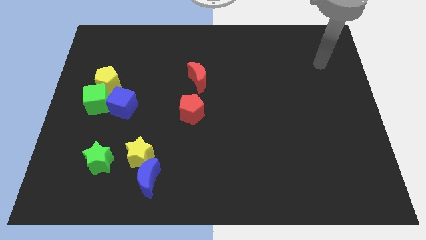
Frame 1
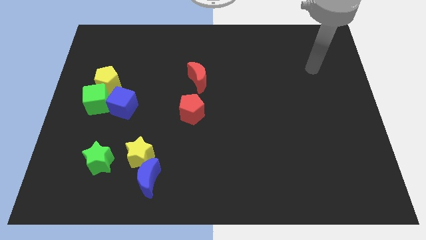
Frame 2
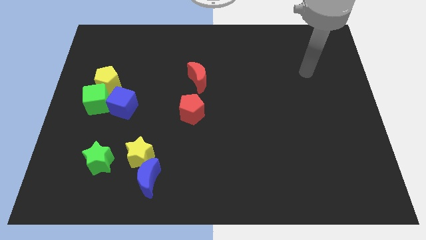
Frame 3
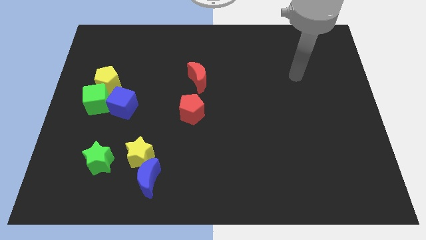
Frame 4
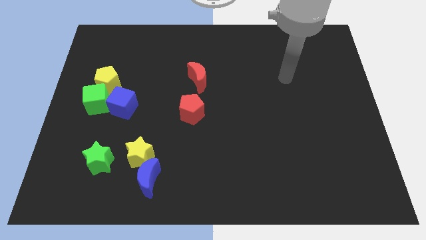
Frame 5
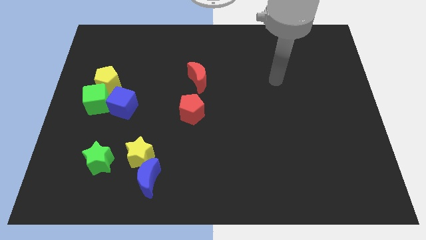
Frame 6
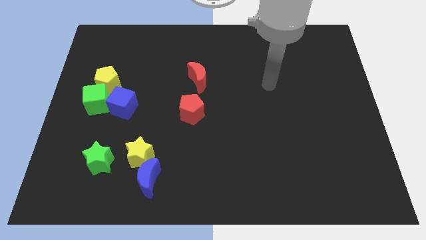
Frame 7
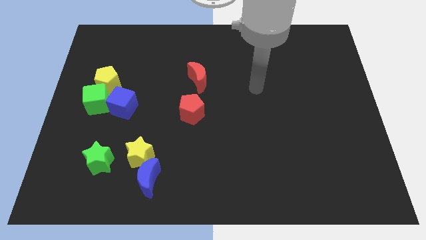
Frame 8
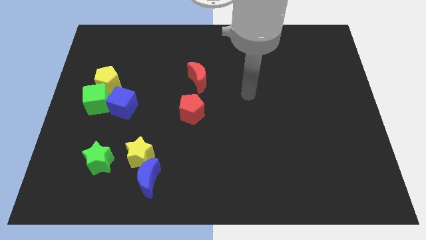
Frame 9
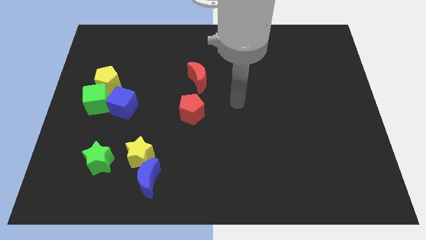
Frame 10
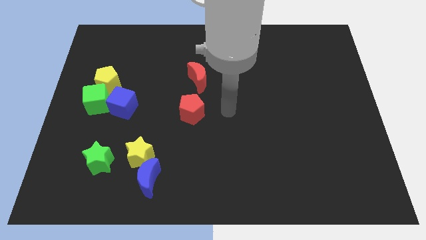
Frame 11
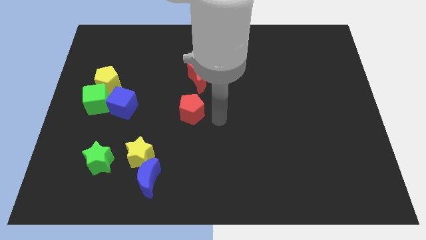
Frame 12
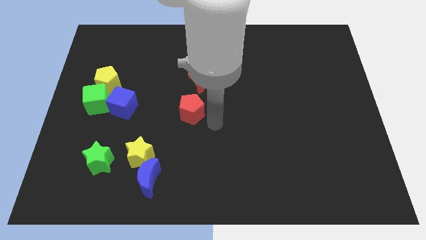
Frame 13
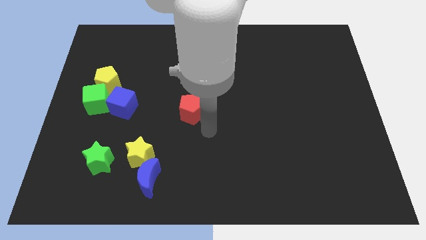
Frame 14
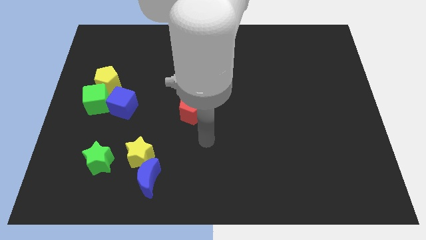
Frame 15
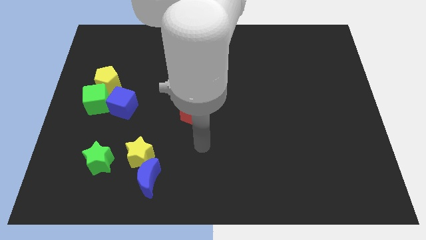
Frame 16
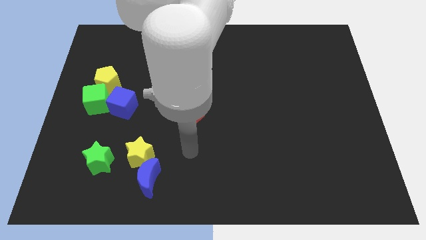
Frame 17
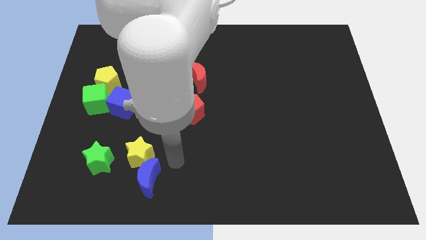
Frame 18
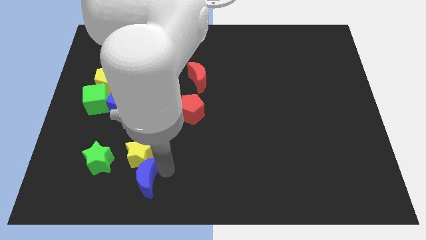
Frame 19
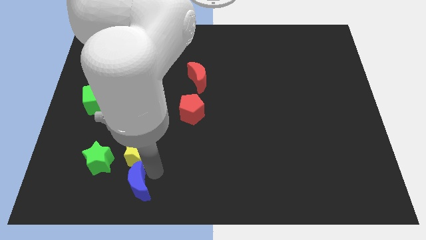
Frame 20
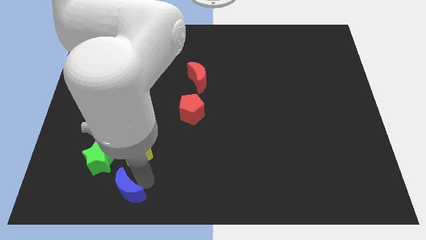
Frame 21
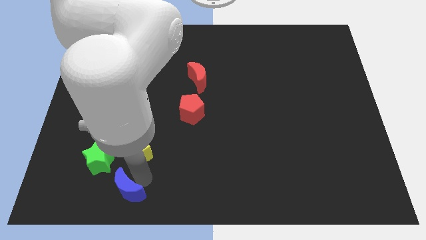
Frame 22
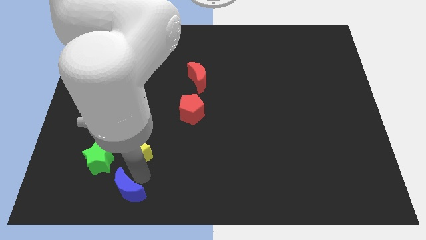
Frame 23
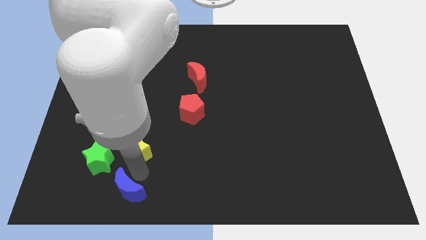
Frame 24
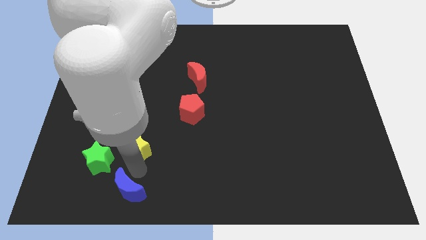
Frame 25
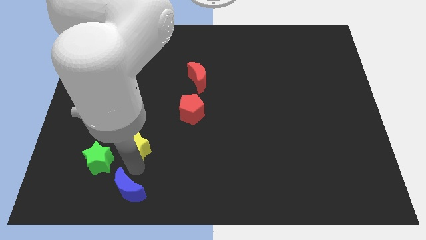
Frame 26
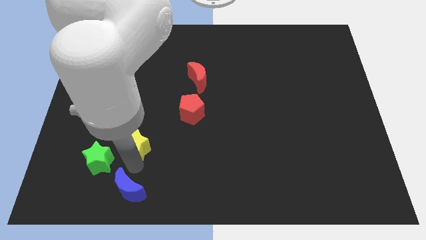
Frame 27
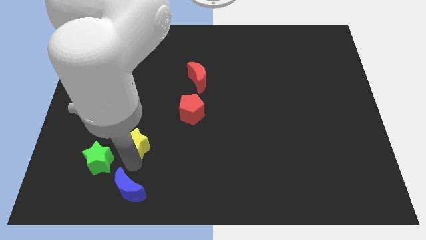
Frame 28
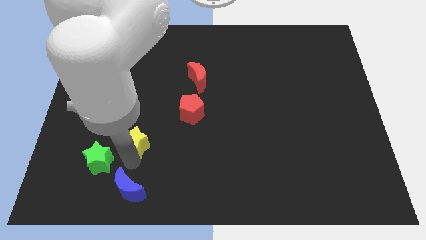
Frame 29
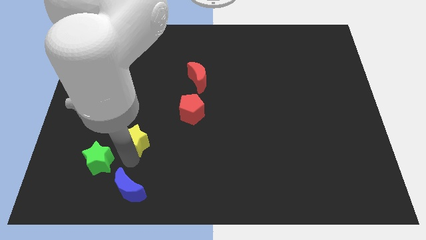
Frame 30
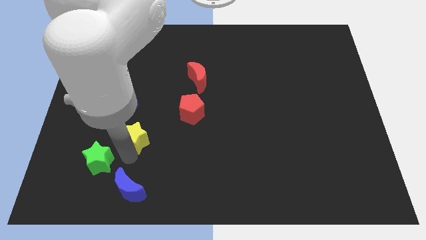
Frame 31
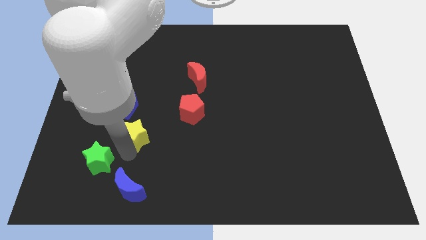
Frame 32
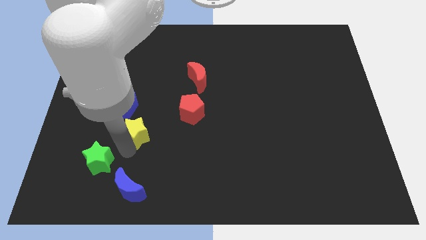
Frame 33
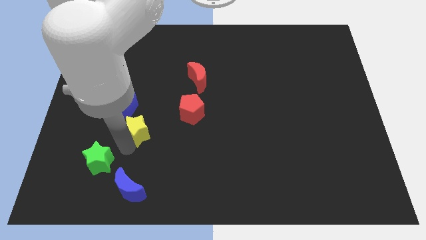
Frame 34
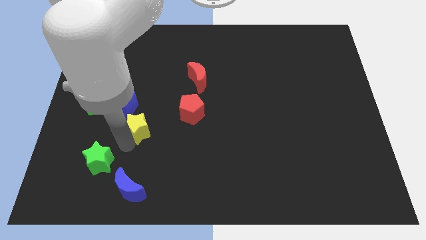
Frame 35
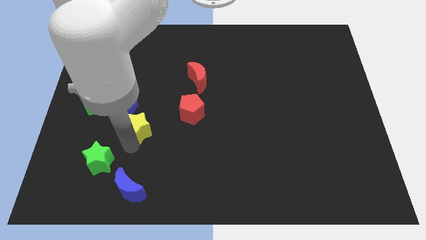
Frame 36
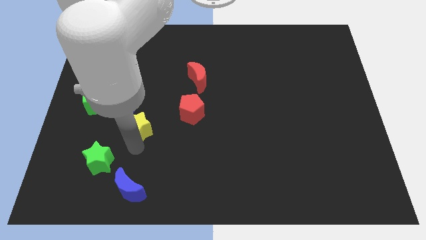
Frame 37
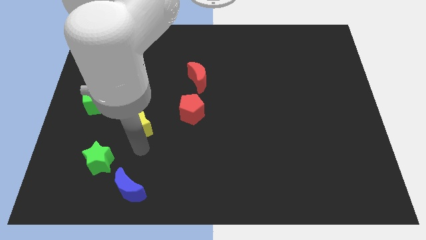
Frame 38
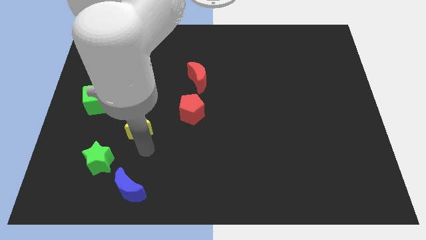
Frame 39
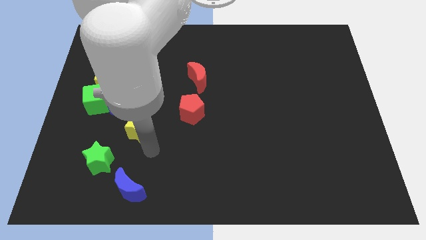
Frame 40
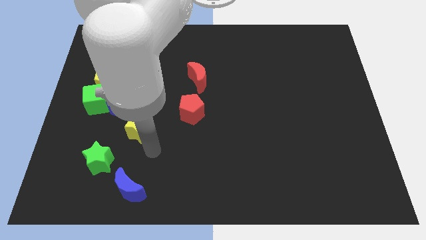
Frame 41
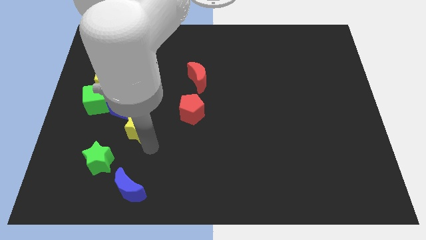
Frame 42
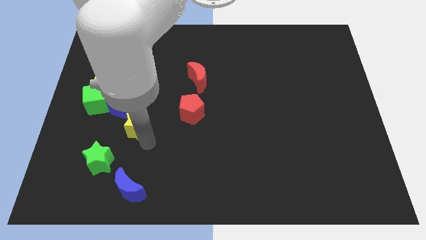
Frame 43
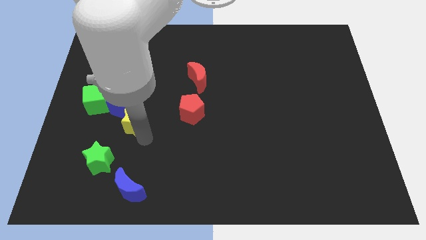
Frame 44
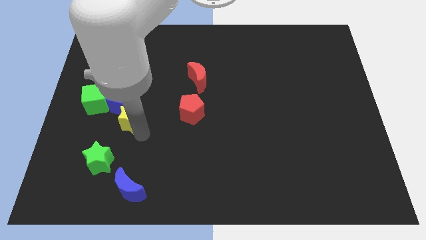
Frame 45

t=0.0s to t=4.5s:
move the yellow star towards the blue cube

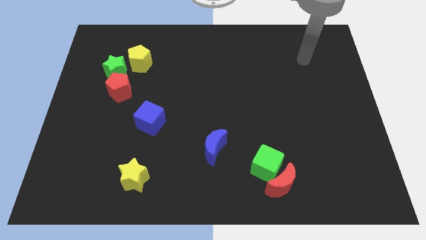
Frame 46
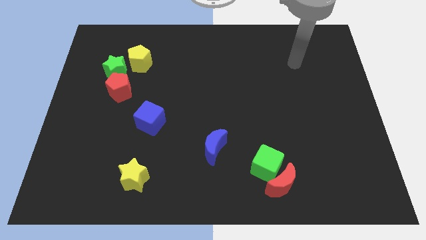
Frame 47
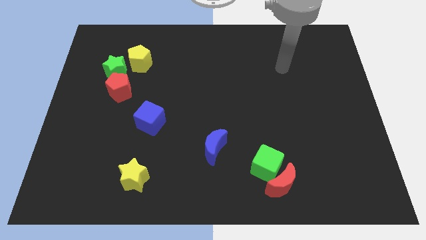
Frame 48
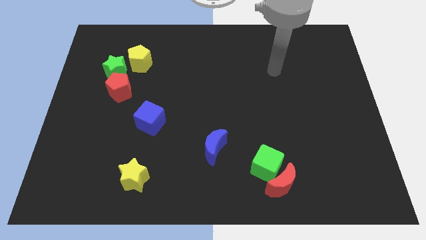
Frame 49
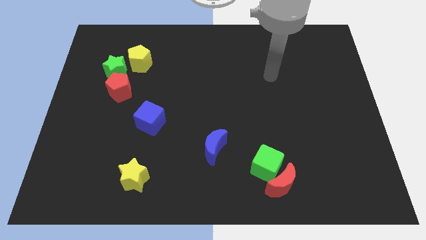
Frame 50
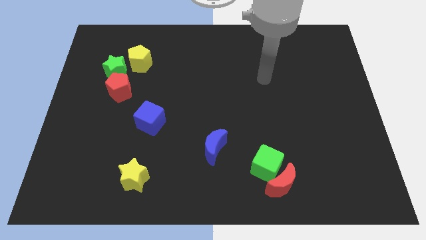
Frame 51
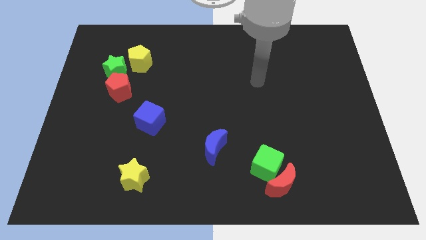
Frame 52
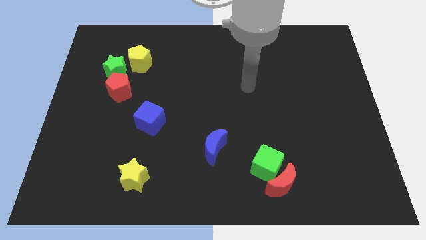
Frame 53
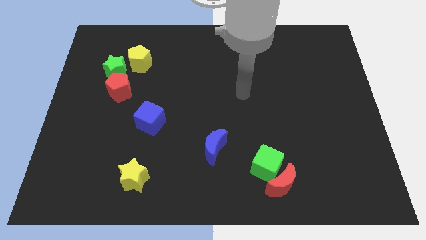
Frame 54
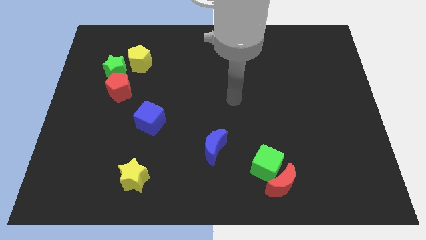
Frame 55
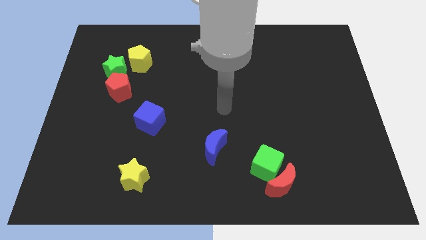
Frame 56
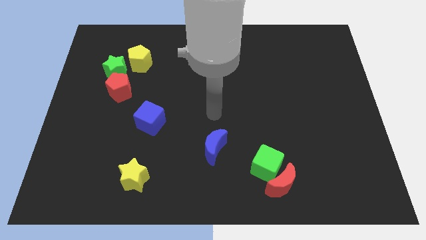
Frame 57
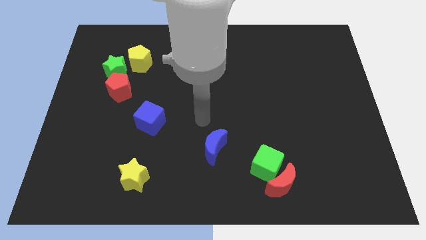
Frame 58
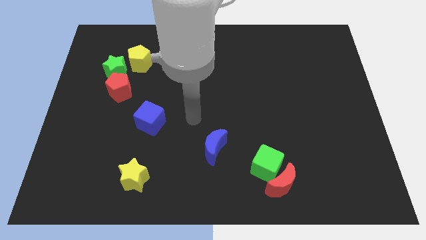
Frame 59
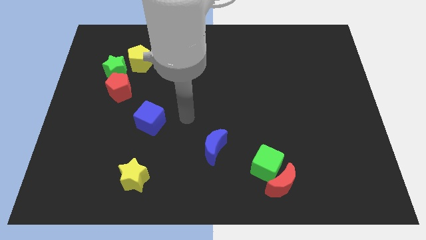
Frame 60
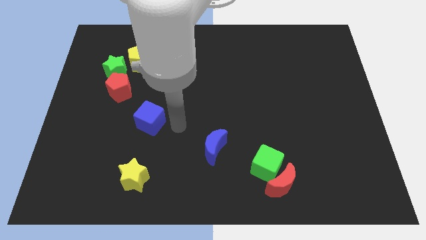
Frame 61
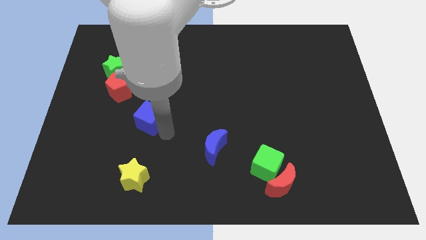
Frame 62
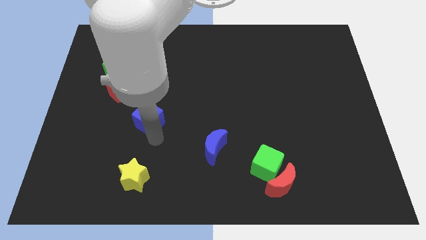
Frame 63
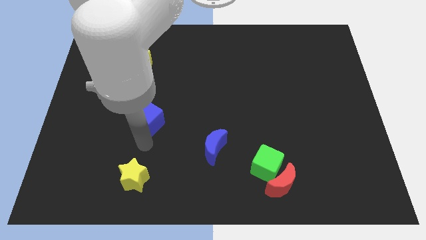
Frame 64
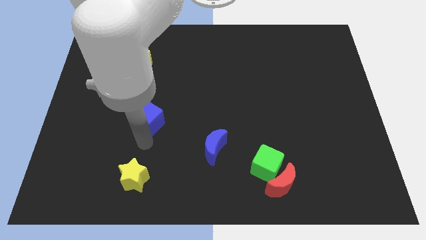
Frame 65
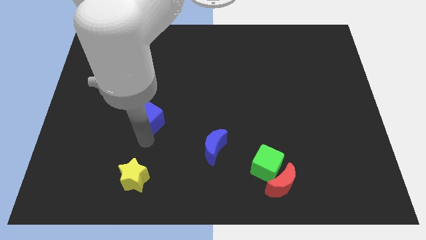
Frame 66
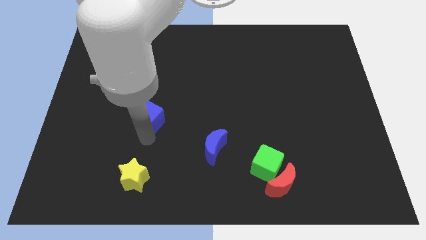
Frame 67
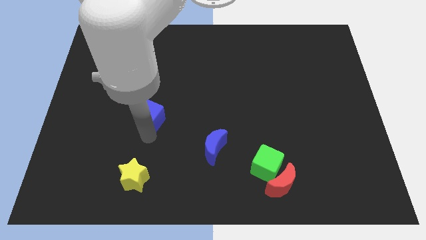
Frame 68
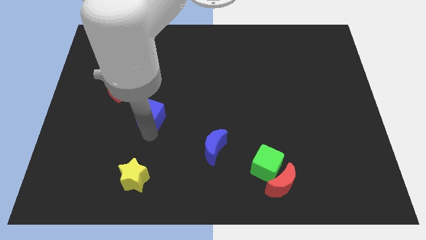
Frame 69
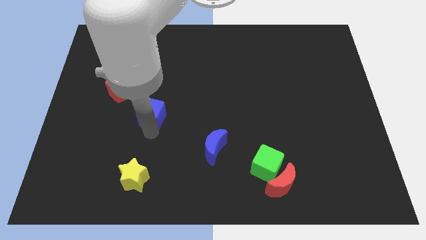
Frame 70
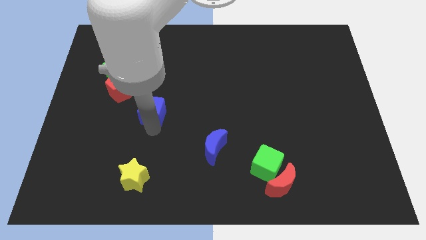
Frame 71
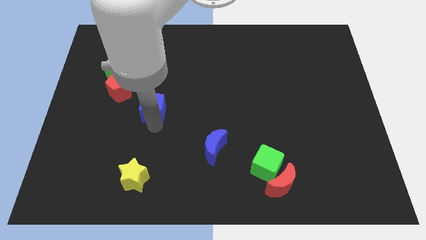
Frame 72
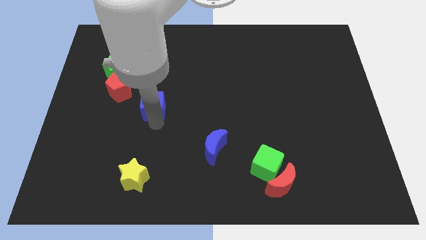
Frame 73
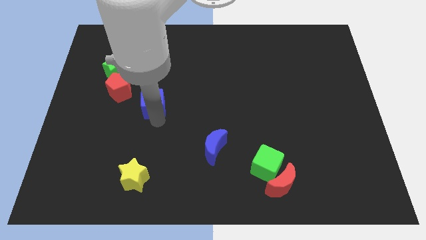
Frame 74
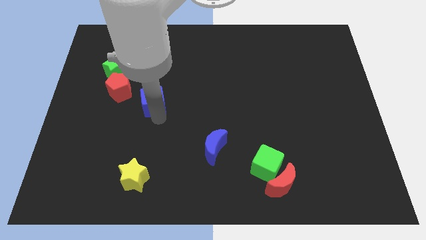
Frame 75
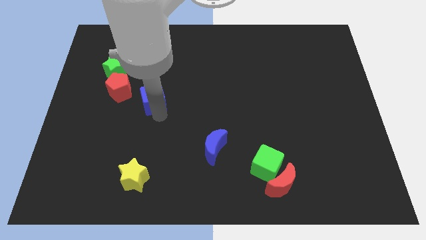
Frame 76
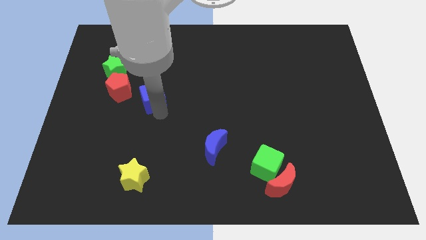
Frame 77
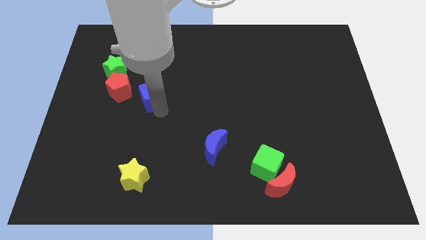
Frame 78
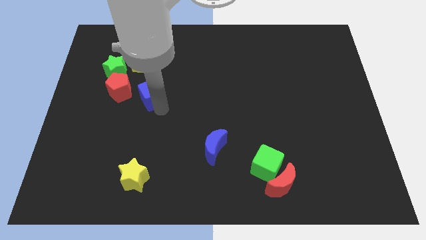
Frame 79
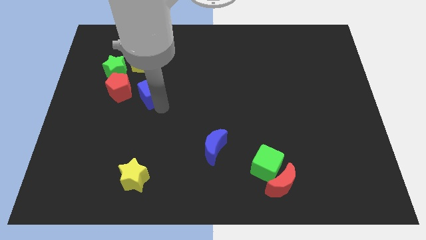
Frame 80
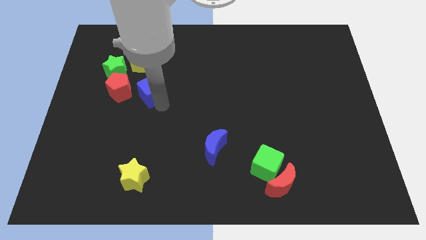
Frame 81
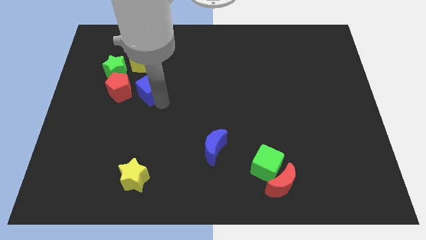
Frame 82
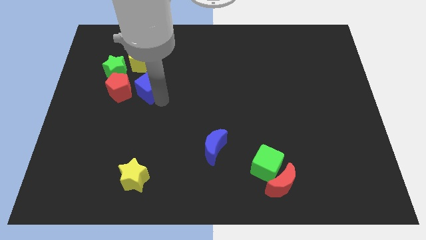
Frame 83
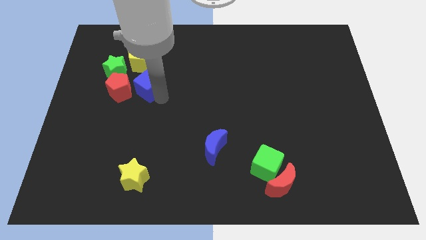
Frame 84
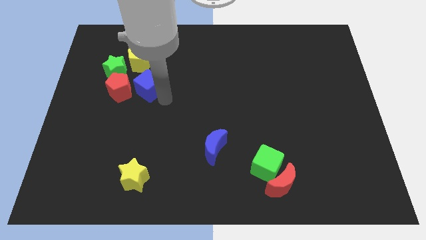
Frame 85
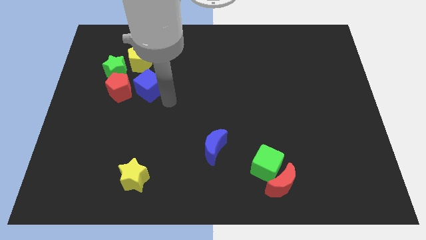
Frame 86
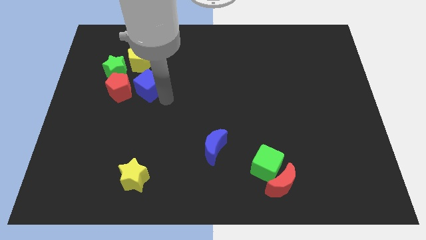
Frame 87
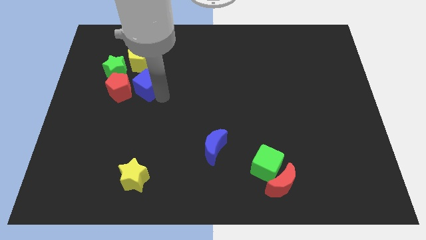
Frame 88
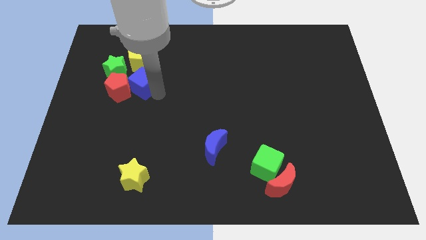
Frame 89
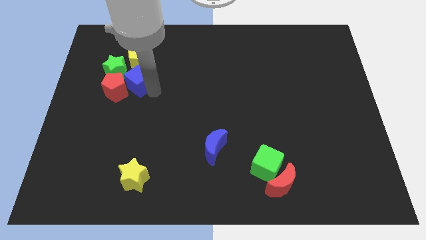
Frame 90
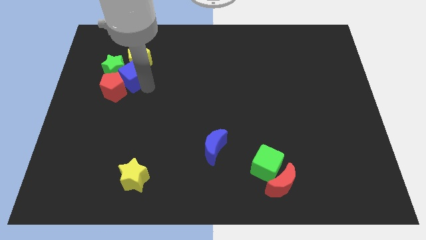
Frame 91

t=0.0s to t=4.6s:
move the blue cube towards the green star
